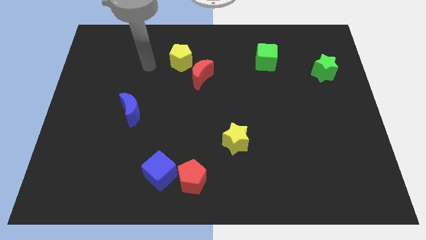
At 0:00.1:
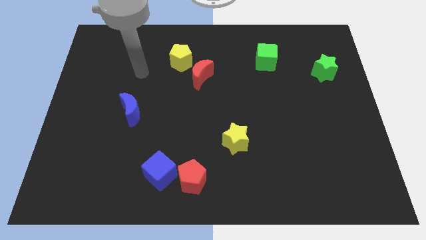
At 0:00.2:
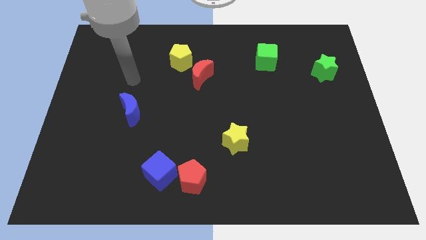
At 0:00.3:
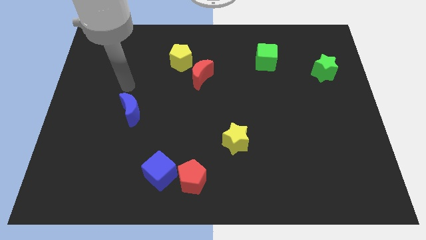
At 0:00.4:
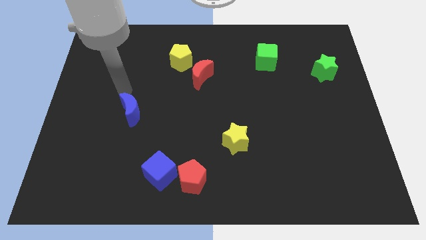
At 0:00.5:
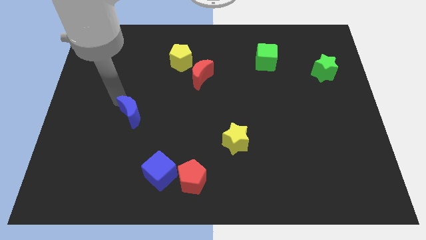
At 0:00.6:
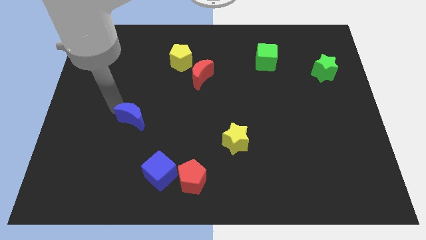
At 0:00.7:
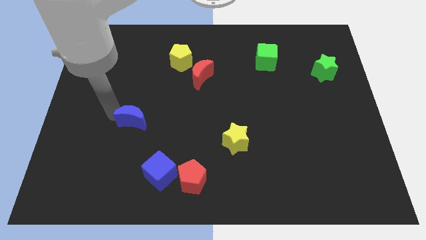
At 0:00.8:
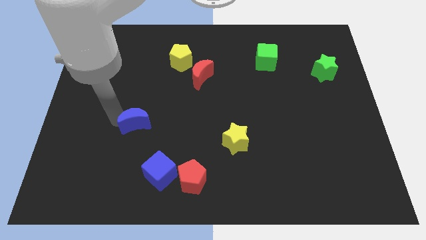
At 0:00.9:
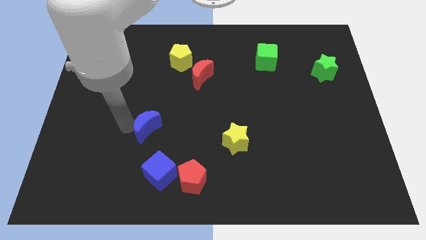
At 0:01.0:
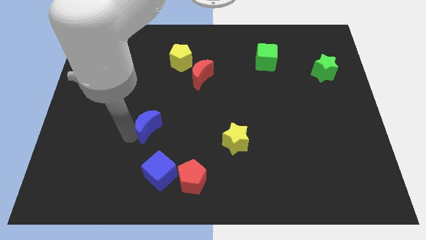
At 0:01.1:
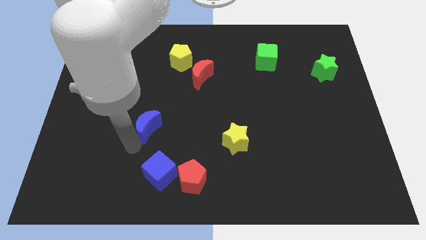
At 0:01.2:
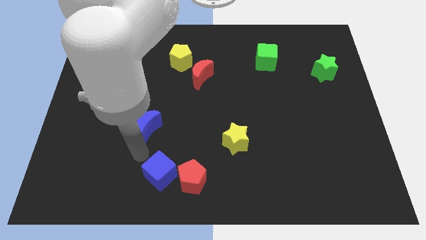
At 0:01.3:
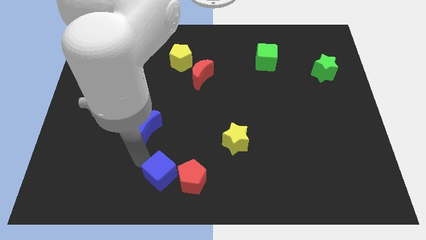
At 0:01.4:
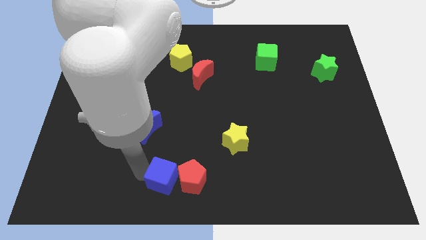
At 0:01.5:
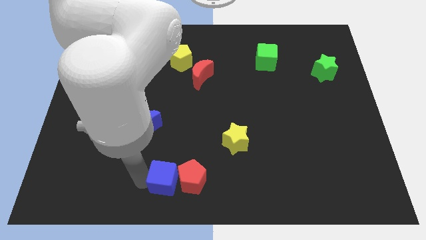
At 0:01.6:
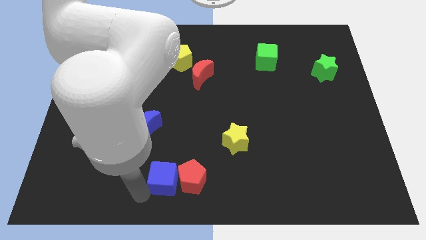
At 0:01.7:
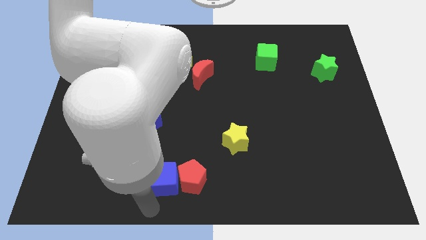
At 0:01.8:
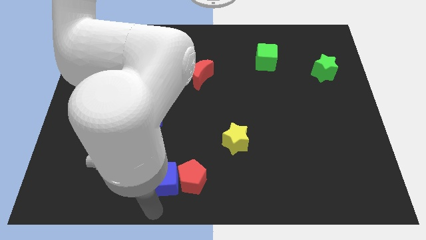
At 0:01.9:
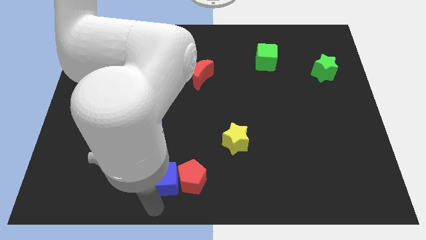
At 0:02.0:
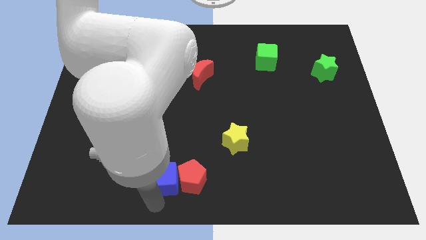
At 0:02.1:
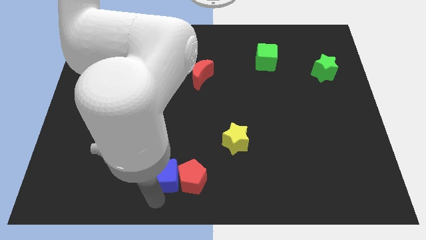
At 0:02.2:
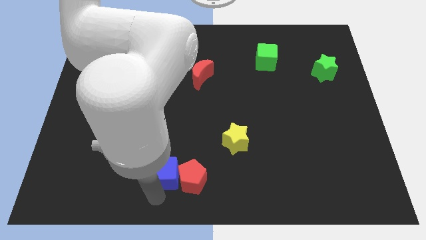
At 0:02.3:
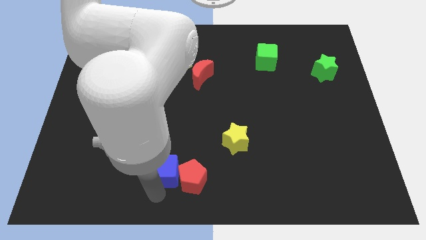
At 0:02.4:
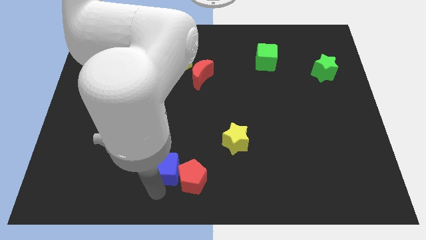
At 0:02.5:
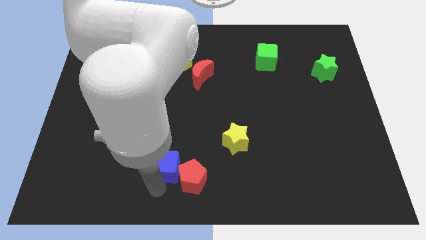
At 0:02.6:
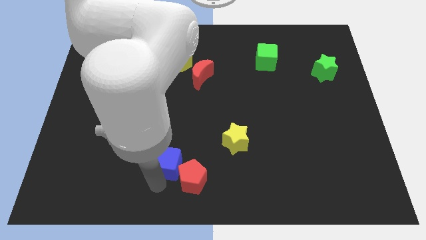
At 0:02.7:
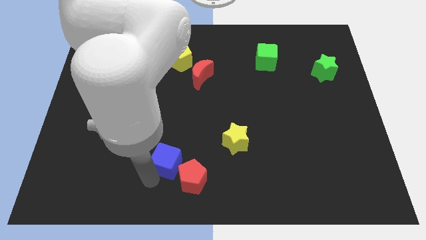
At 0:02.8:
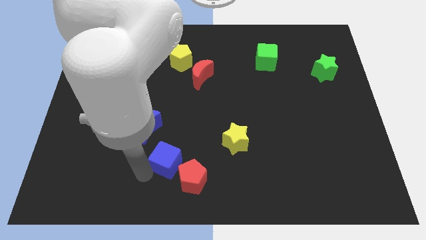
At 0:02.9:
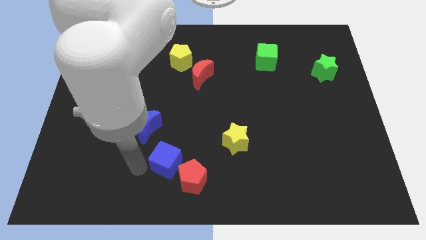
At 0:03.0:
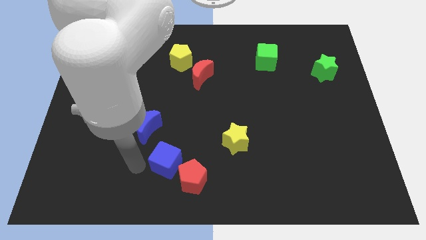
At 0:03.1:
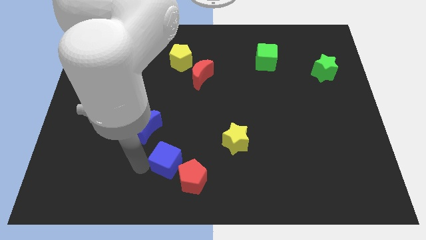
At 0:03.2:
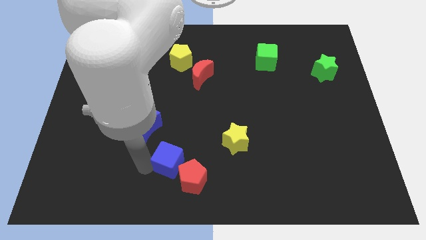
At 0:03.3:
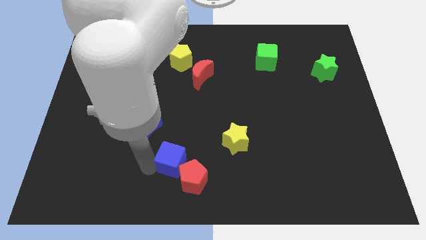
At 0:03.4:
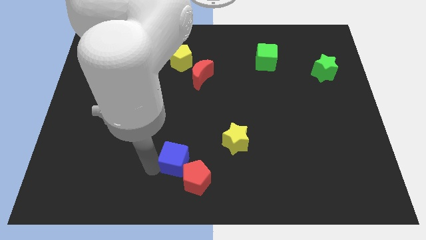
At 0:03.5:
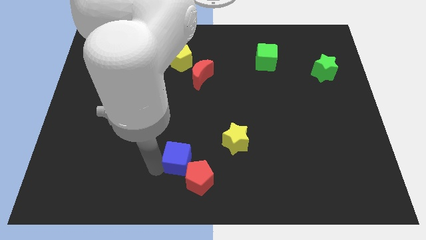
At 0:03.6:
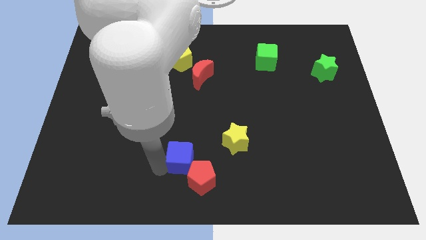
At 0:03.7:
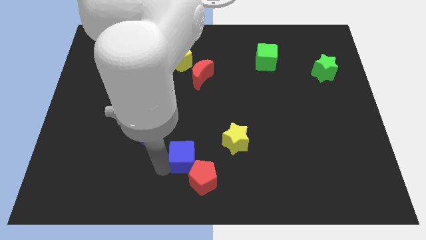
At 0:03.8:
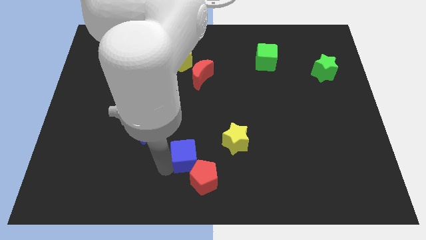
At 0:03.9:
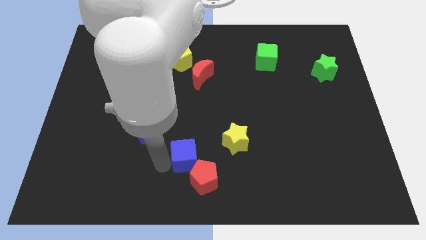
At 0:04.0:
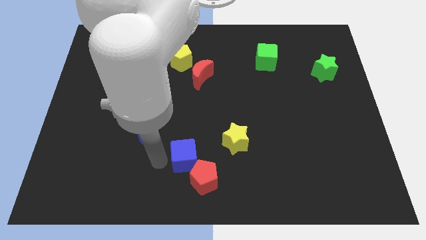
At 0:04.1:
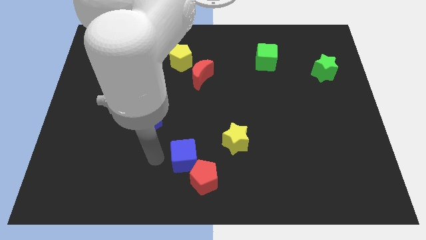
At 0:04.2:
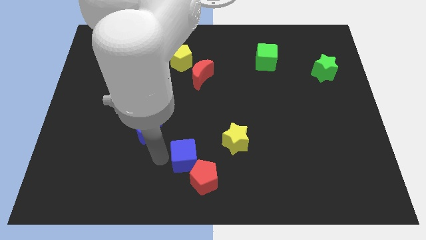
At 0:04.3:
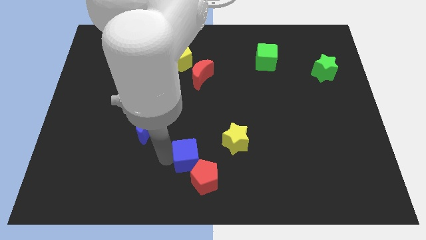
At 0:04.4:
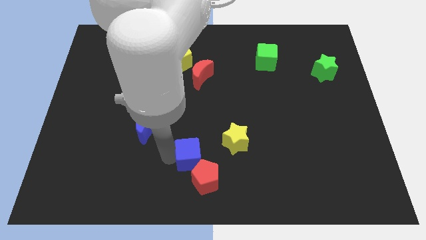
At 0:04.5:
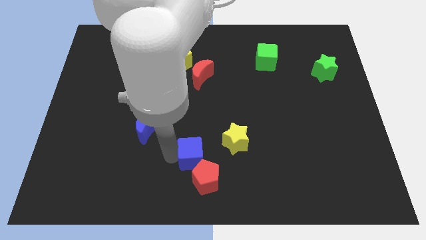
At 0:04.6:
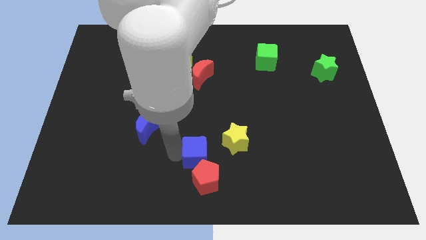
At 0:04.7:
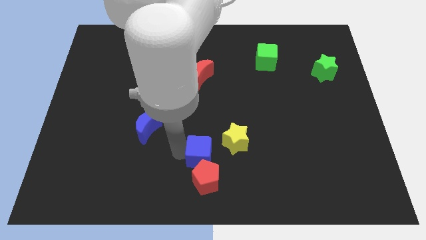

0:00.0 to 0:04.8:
slightly push the blue cube right

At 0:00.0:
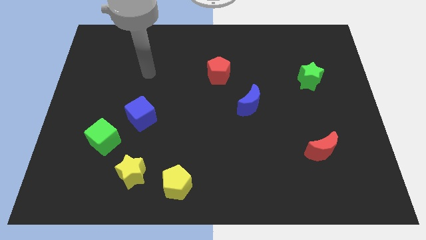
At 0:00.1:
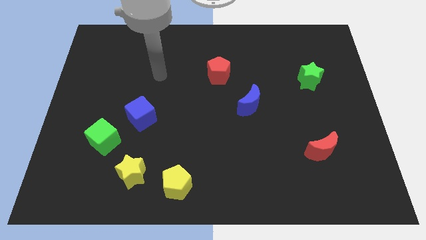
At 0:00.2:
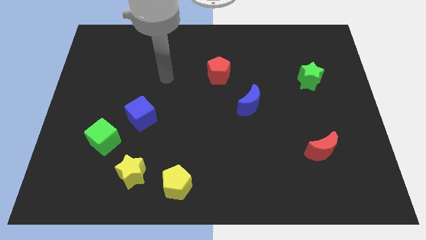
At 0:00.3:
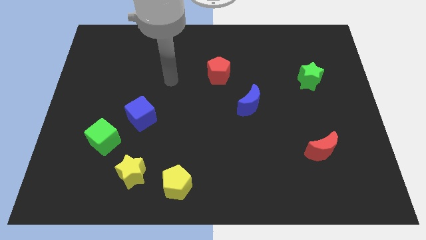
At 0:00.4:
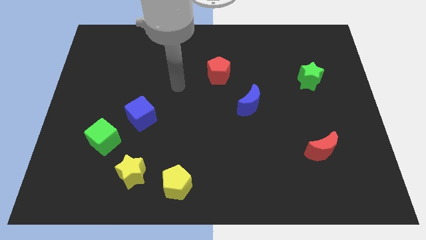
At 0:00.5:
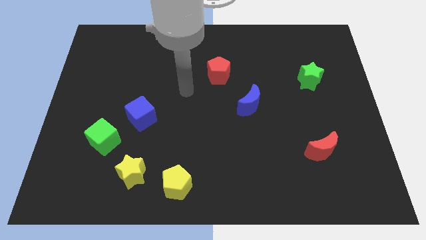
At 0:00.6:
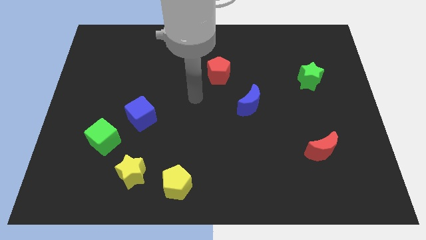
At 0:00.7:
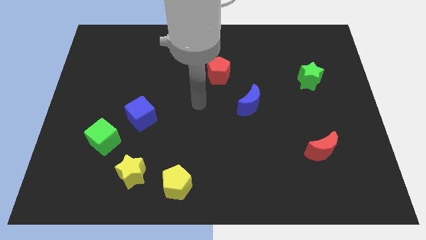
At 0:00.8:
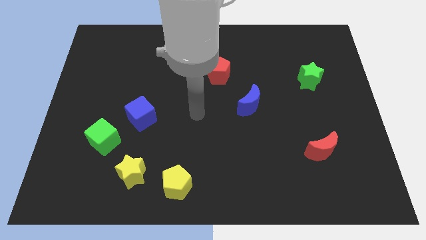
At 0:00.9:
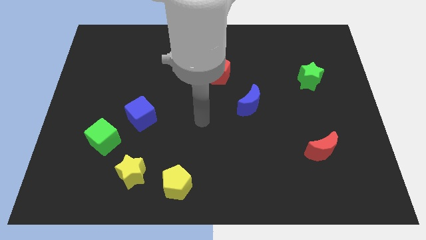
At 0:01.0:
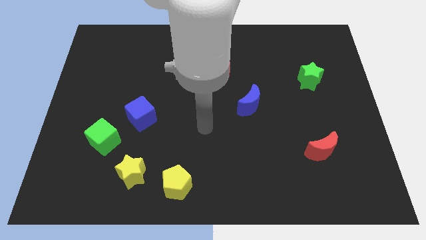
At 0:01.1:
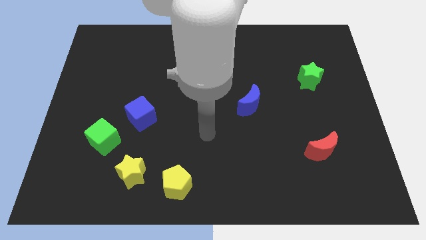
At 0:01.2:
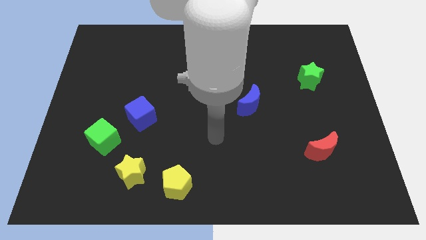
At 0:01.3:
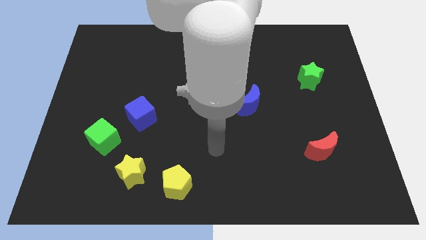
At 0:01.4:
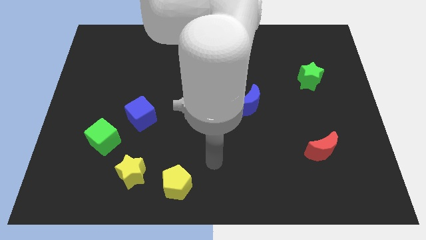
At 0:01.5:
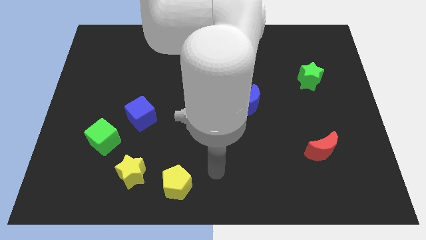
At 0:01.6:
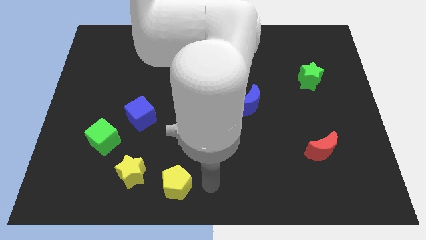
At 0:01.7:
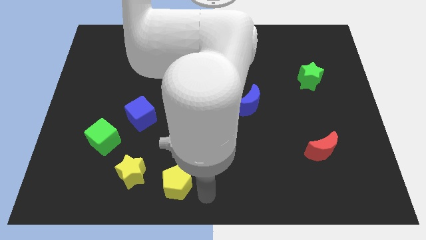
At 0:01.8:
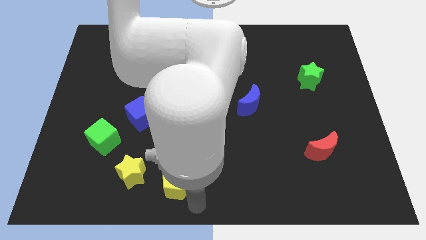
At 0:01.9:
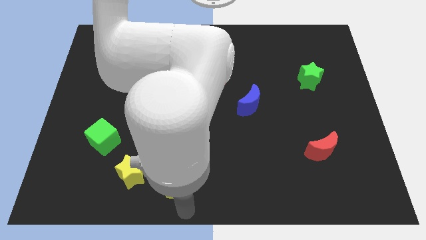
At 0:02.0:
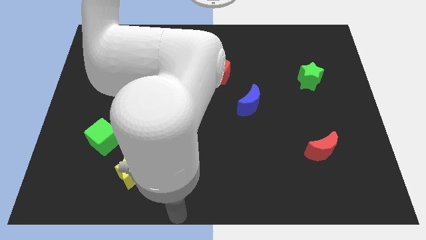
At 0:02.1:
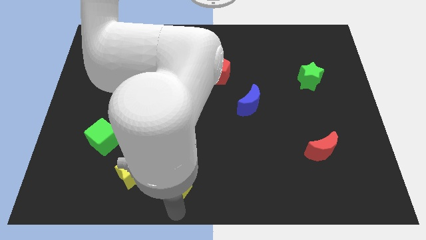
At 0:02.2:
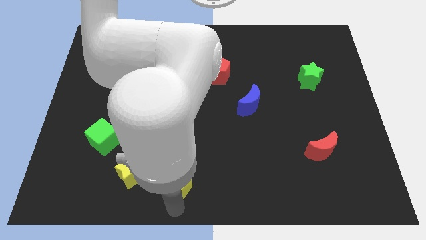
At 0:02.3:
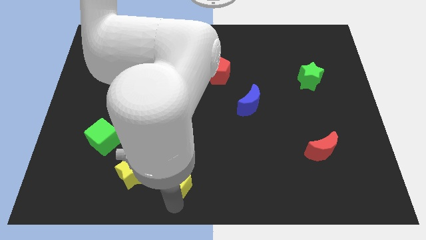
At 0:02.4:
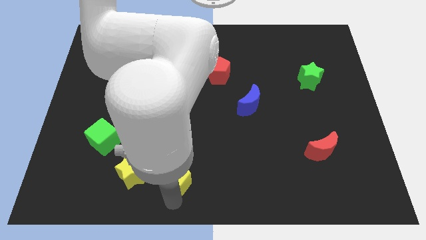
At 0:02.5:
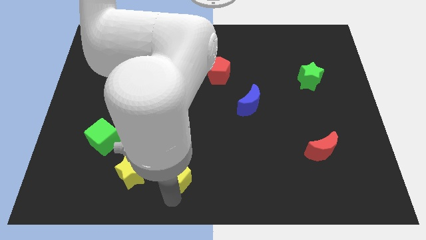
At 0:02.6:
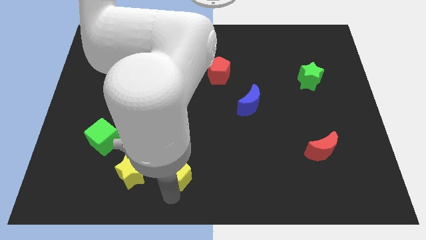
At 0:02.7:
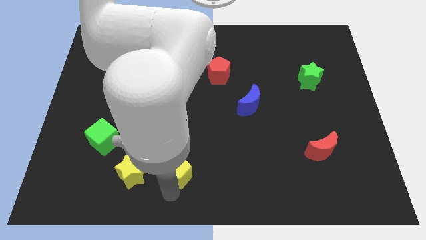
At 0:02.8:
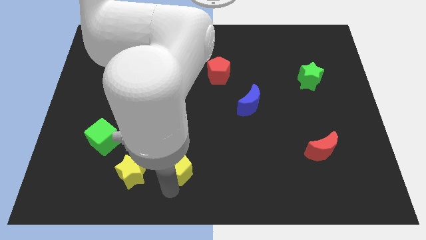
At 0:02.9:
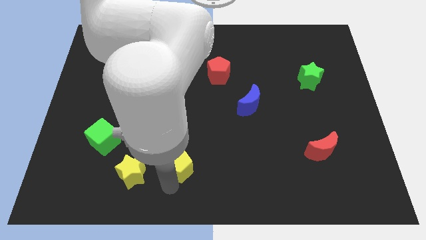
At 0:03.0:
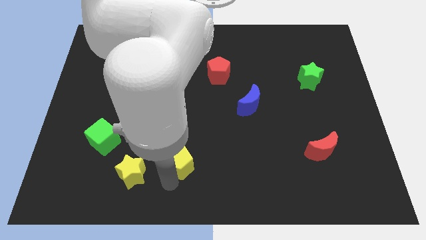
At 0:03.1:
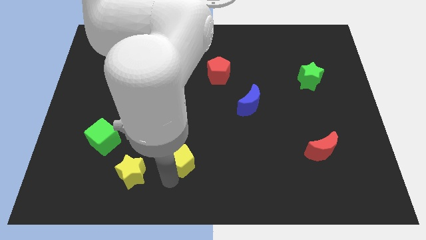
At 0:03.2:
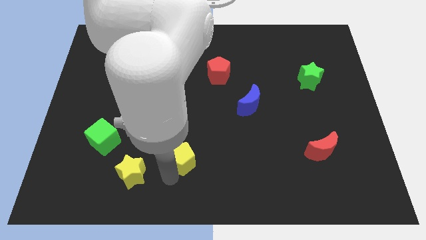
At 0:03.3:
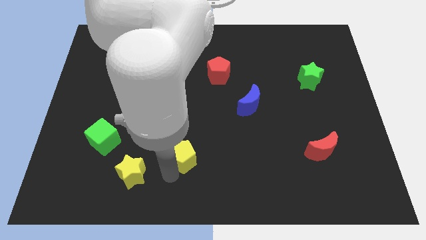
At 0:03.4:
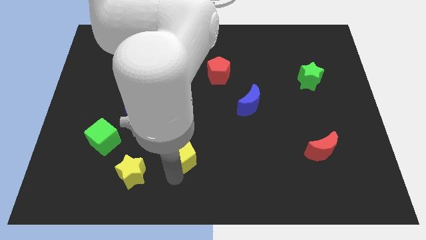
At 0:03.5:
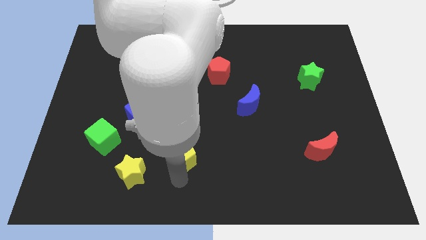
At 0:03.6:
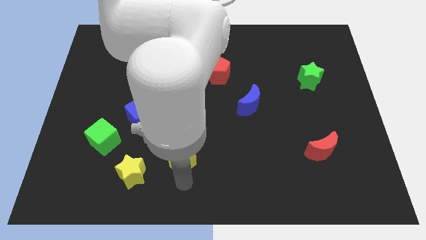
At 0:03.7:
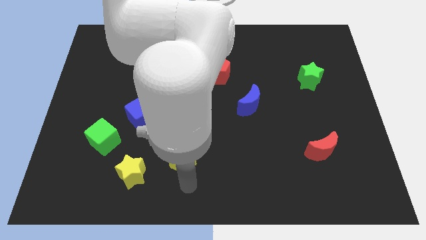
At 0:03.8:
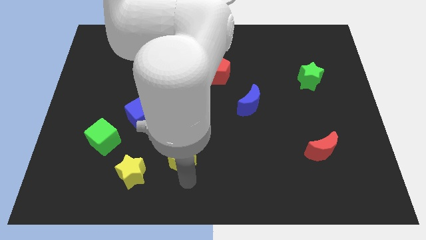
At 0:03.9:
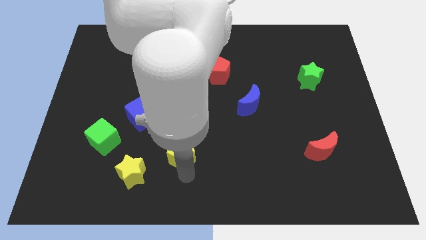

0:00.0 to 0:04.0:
slightly slide the yellow pentagon up
